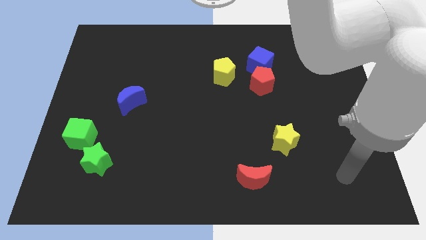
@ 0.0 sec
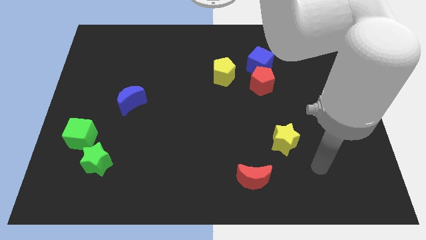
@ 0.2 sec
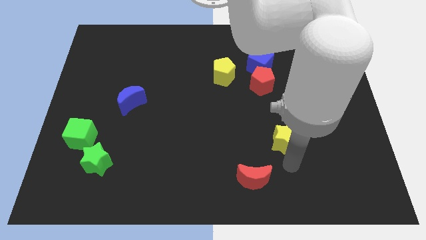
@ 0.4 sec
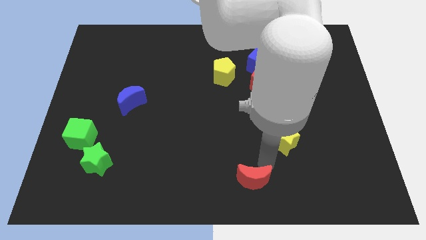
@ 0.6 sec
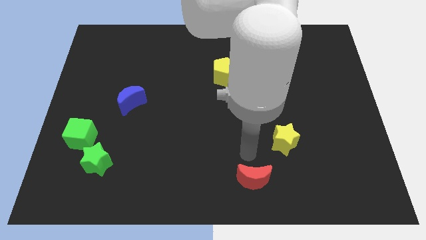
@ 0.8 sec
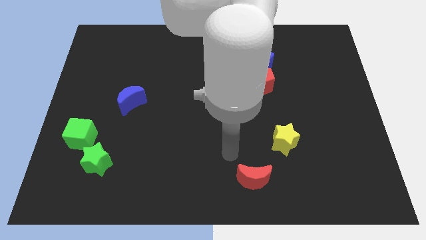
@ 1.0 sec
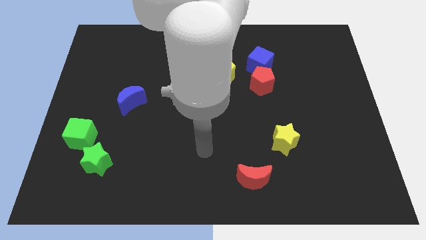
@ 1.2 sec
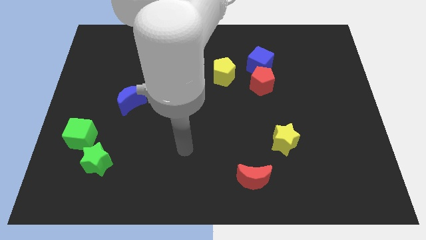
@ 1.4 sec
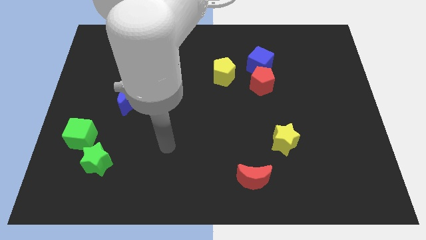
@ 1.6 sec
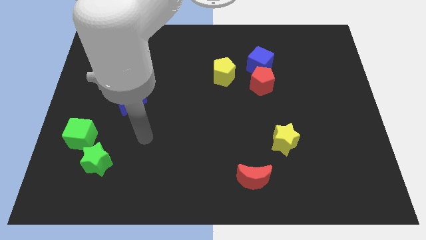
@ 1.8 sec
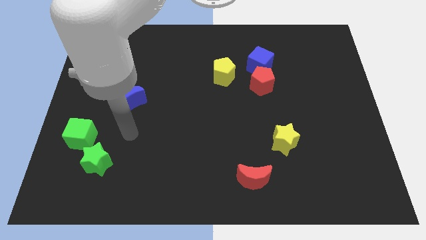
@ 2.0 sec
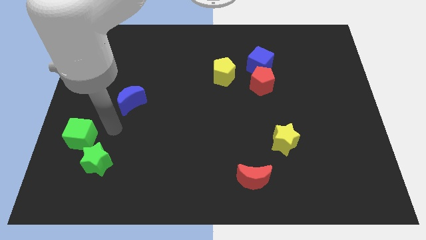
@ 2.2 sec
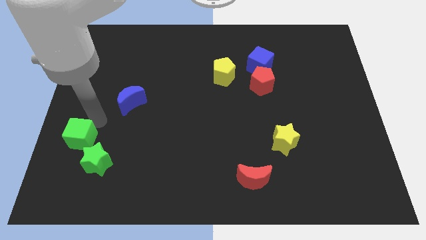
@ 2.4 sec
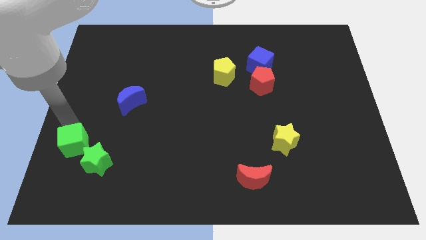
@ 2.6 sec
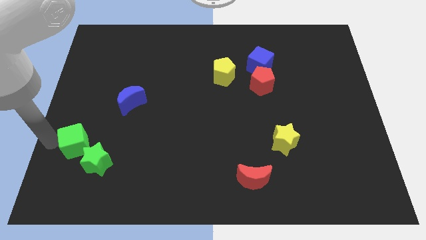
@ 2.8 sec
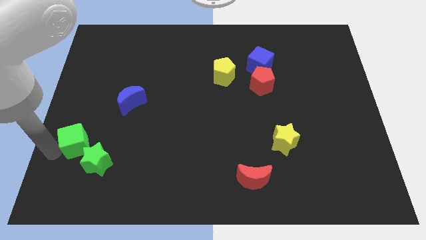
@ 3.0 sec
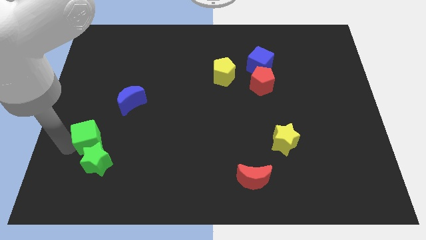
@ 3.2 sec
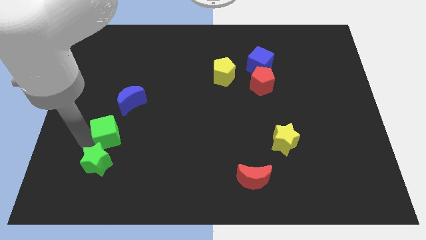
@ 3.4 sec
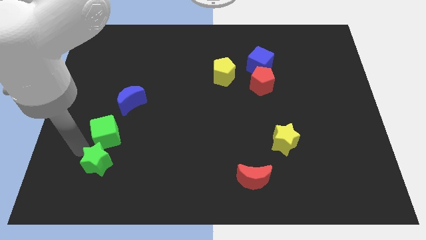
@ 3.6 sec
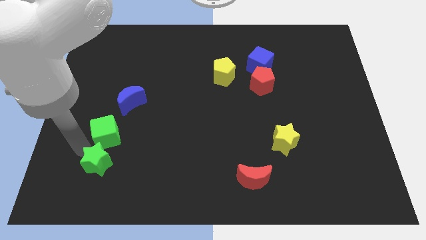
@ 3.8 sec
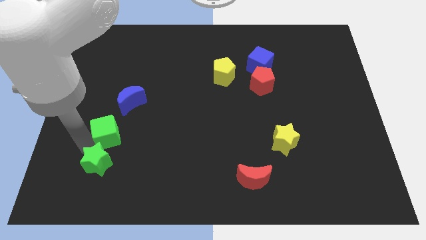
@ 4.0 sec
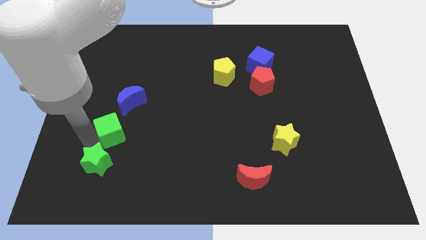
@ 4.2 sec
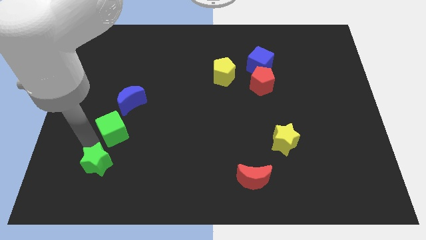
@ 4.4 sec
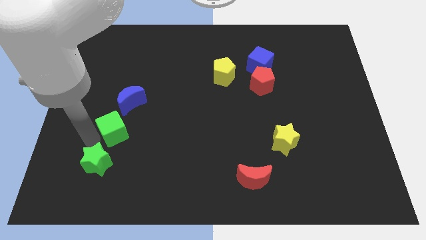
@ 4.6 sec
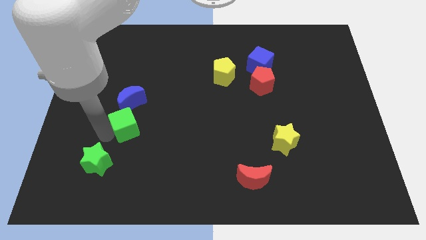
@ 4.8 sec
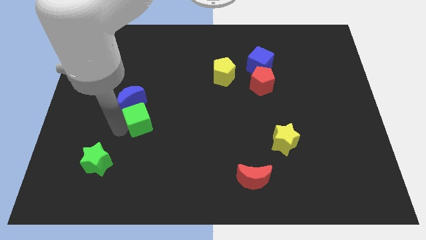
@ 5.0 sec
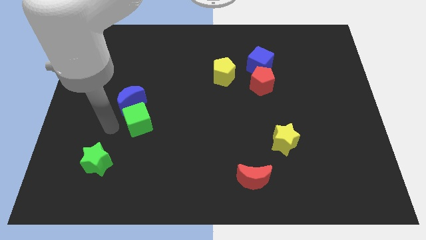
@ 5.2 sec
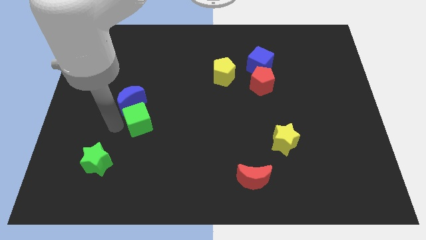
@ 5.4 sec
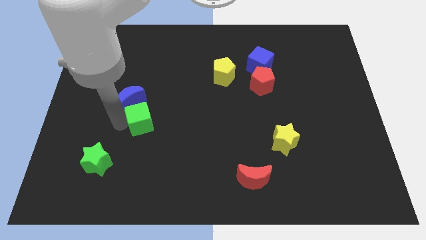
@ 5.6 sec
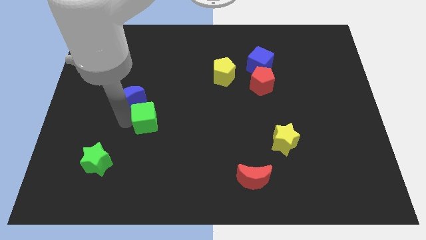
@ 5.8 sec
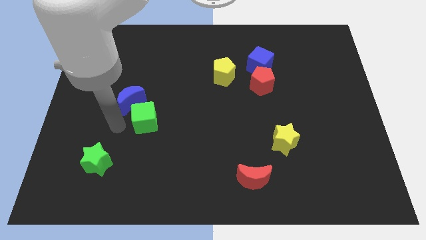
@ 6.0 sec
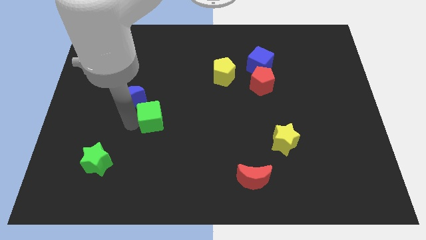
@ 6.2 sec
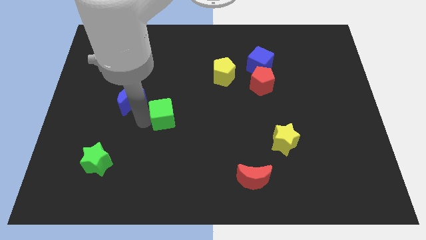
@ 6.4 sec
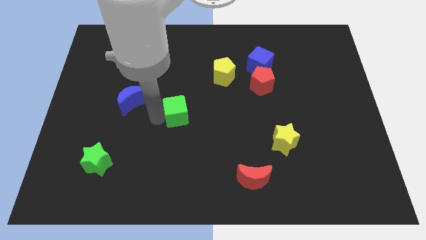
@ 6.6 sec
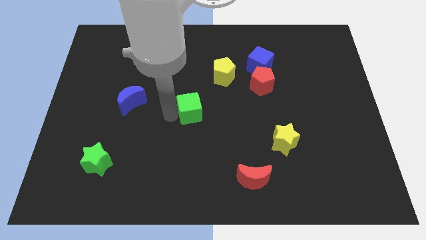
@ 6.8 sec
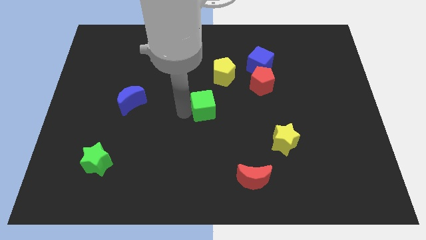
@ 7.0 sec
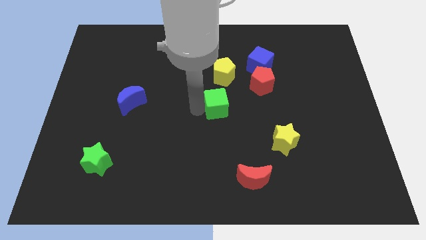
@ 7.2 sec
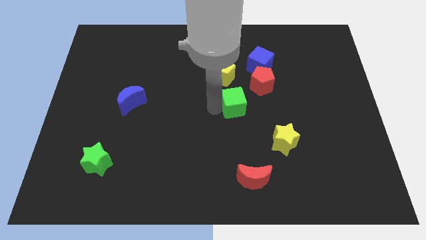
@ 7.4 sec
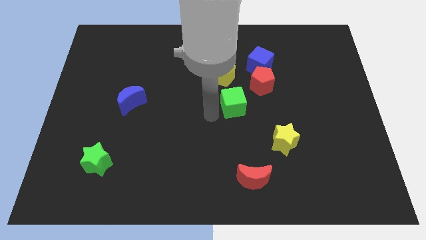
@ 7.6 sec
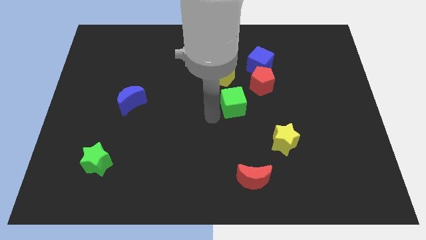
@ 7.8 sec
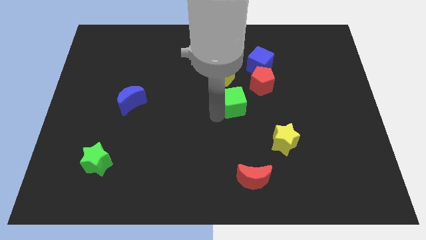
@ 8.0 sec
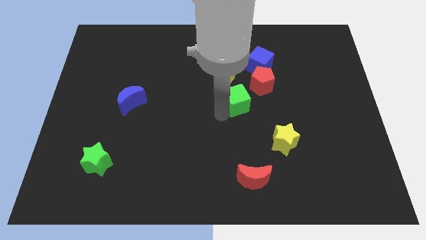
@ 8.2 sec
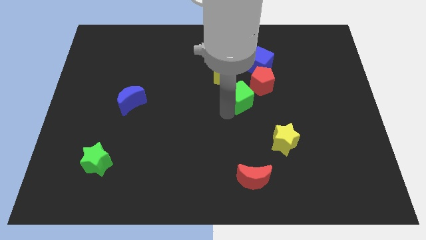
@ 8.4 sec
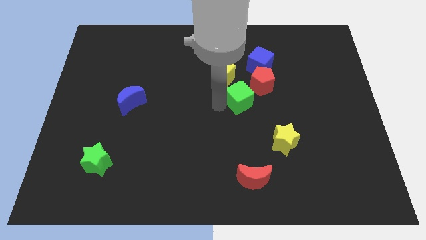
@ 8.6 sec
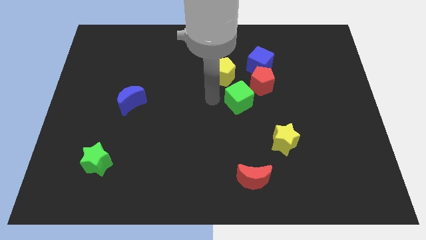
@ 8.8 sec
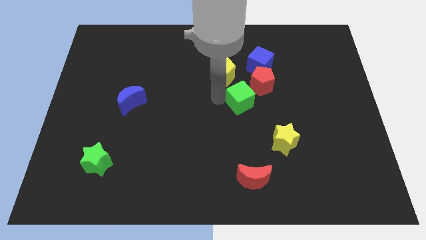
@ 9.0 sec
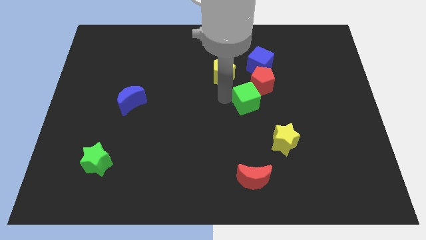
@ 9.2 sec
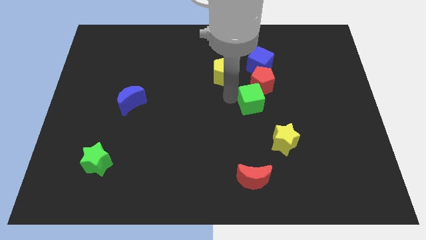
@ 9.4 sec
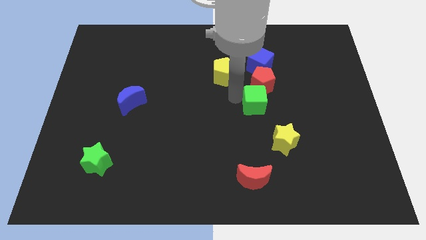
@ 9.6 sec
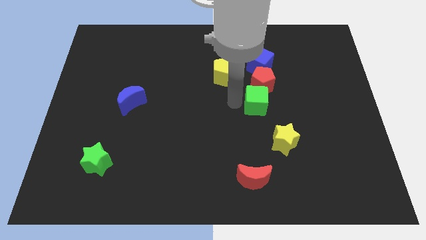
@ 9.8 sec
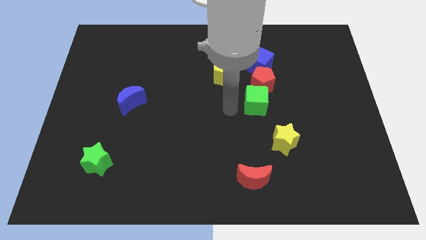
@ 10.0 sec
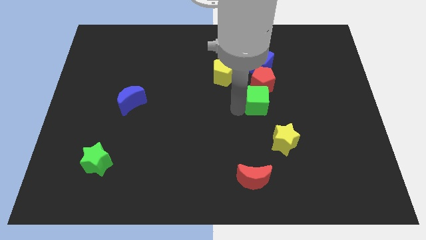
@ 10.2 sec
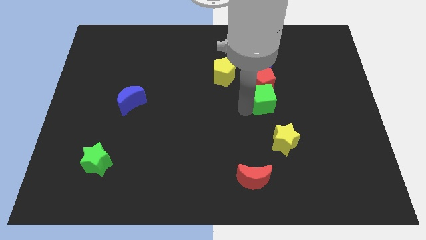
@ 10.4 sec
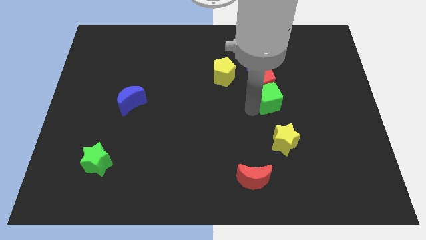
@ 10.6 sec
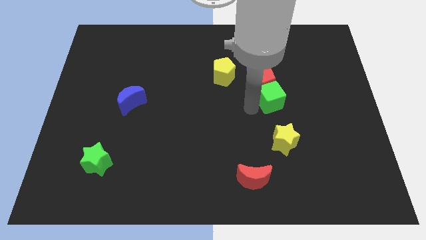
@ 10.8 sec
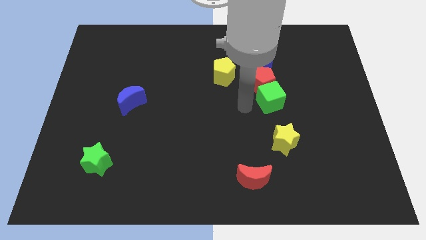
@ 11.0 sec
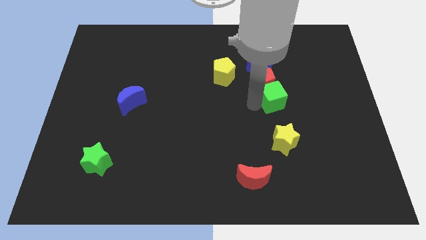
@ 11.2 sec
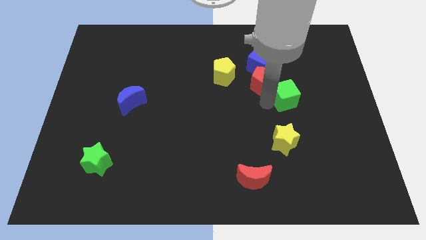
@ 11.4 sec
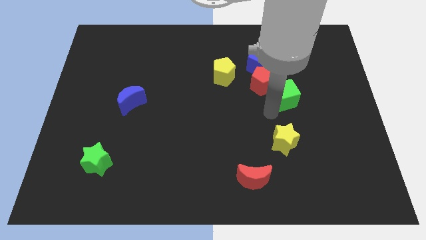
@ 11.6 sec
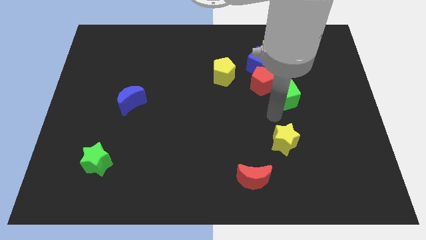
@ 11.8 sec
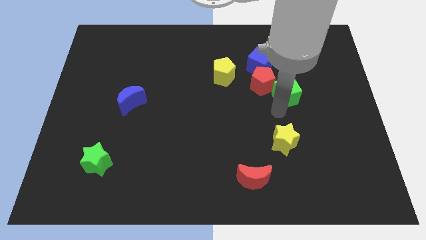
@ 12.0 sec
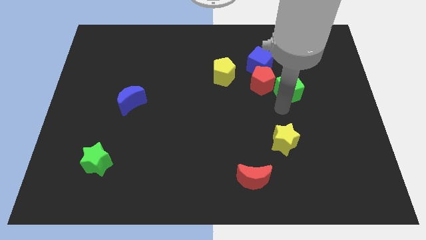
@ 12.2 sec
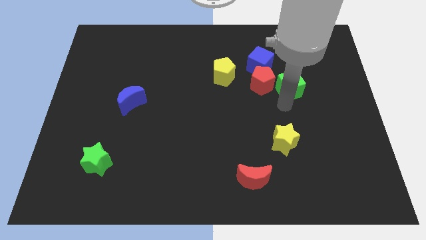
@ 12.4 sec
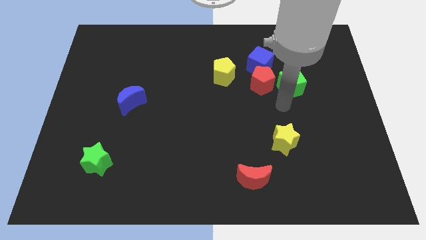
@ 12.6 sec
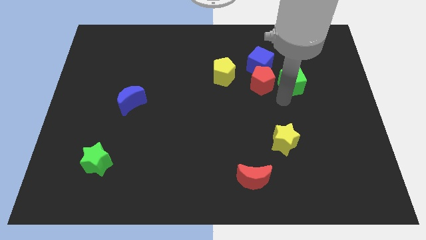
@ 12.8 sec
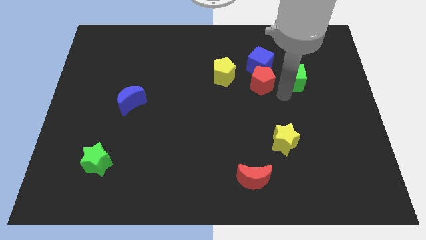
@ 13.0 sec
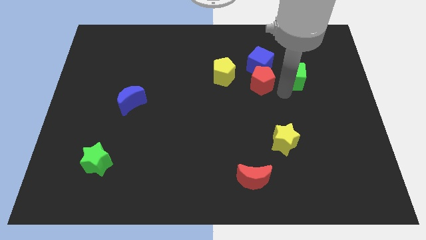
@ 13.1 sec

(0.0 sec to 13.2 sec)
slide the green cube right of the blue cube
